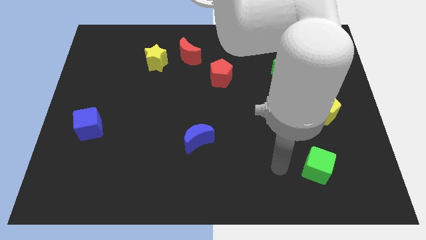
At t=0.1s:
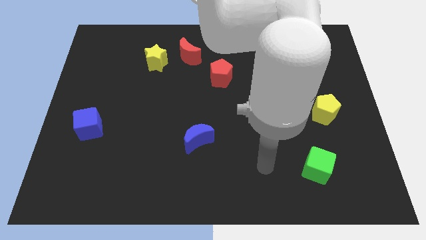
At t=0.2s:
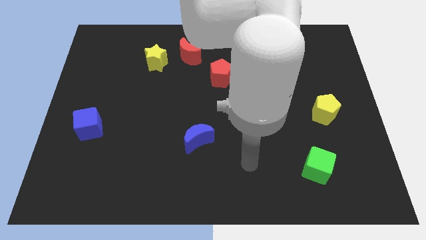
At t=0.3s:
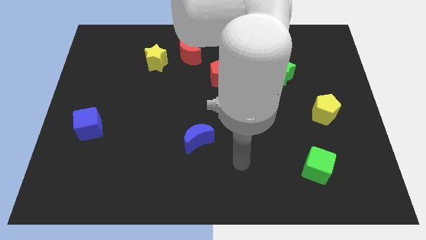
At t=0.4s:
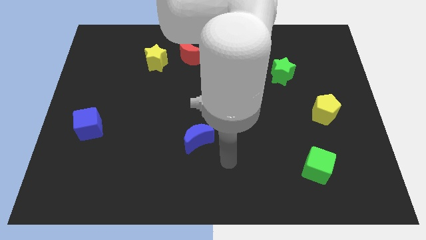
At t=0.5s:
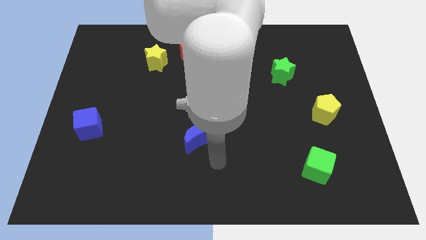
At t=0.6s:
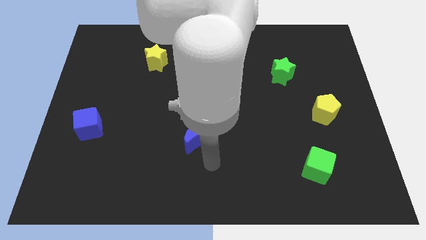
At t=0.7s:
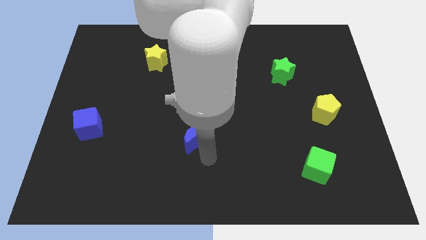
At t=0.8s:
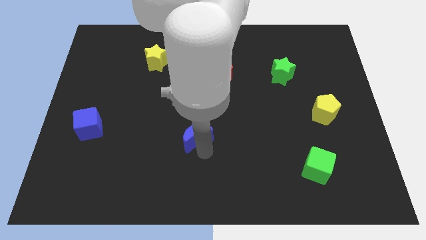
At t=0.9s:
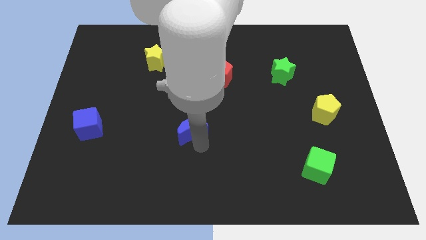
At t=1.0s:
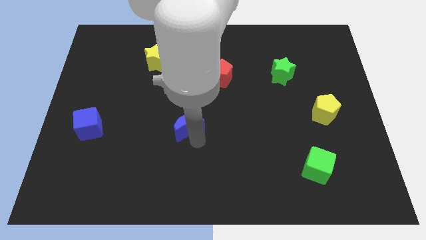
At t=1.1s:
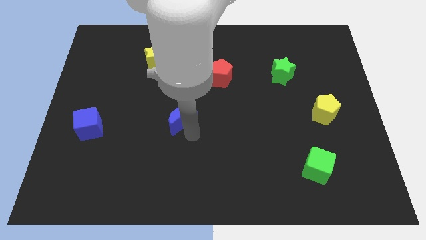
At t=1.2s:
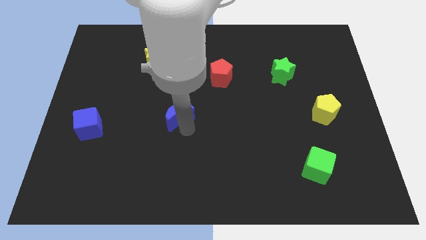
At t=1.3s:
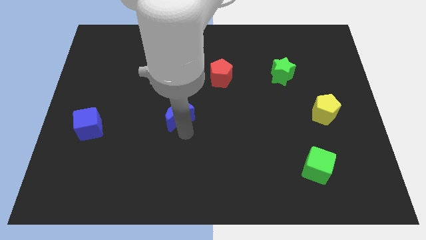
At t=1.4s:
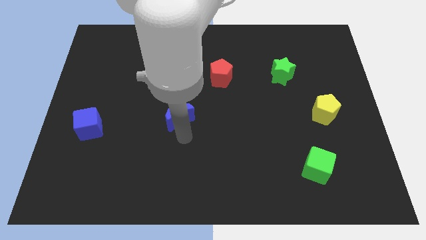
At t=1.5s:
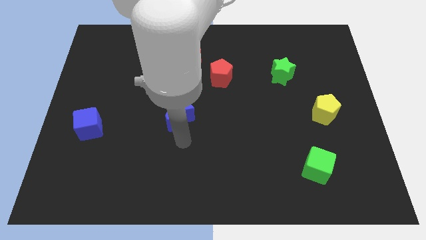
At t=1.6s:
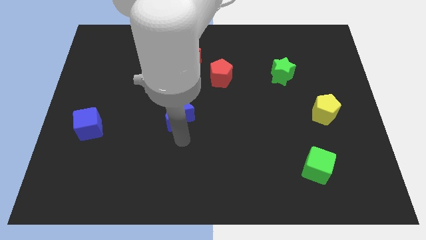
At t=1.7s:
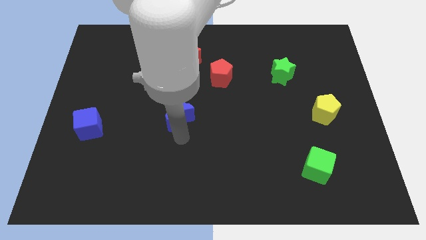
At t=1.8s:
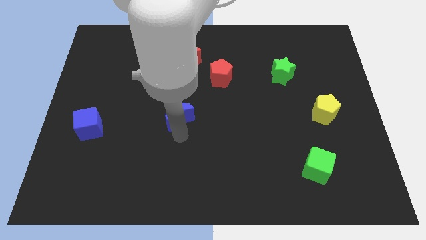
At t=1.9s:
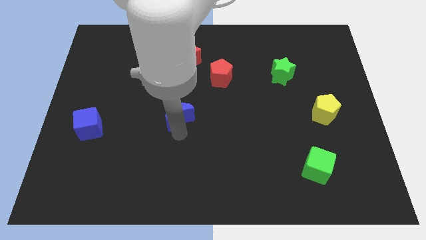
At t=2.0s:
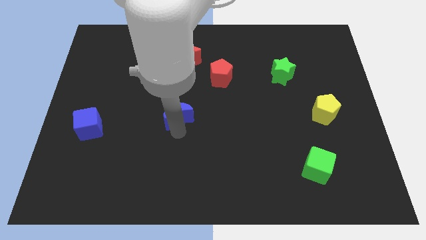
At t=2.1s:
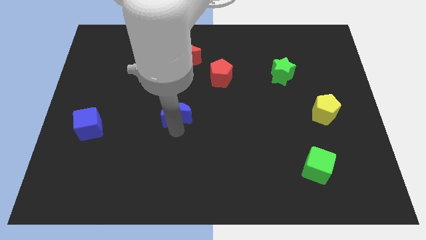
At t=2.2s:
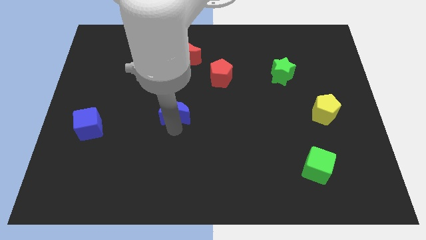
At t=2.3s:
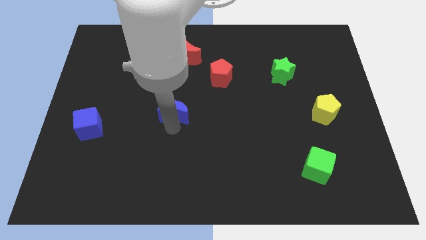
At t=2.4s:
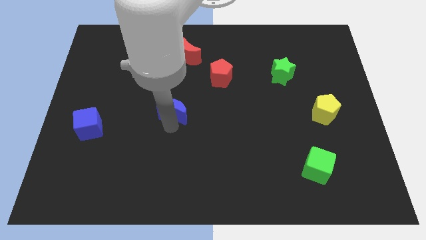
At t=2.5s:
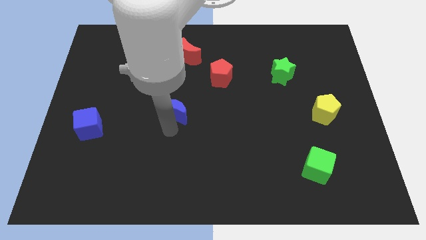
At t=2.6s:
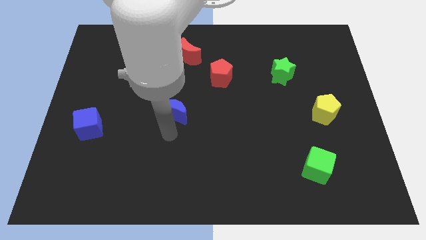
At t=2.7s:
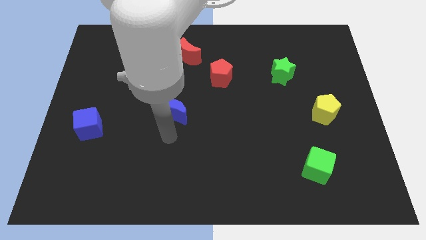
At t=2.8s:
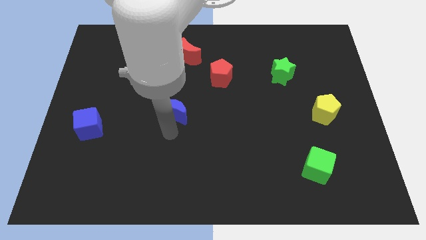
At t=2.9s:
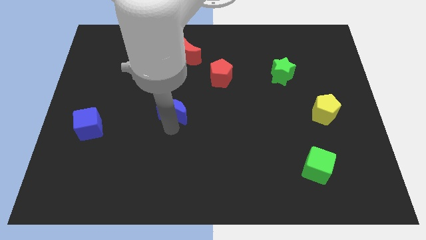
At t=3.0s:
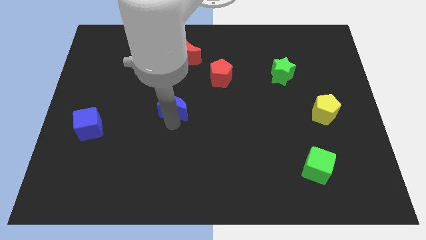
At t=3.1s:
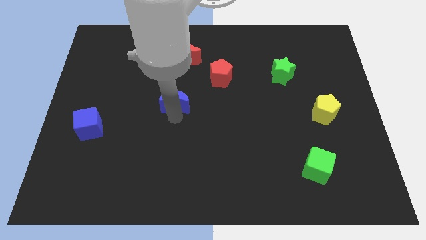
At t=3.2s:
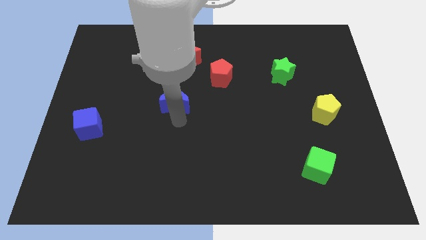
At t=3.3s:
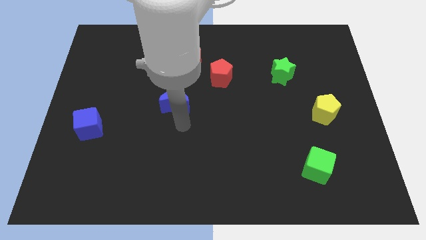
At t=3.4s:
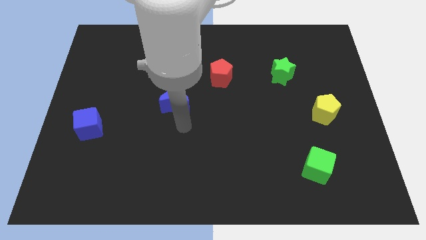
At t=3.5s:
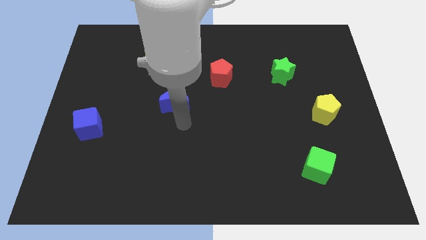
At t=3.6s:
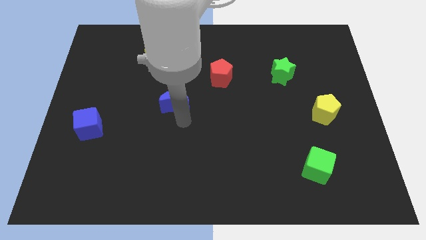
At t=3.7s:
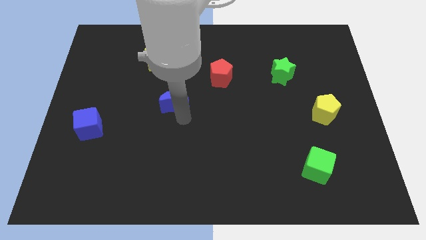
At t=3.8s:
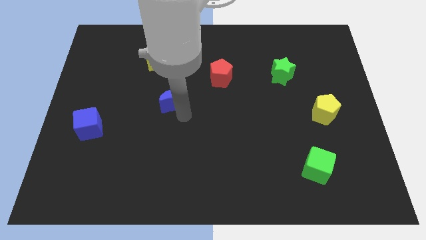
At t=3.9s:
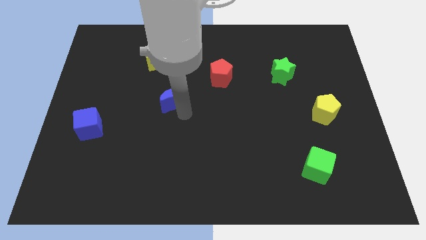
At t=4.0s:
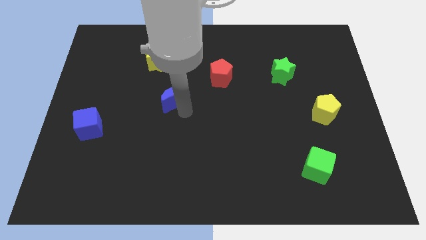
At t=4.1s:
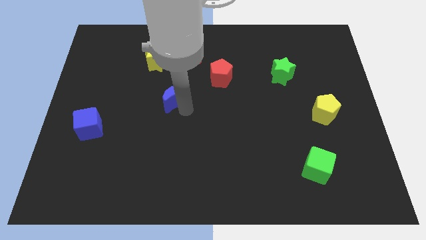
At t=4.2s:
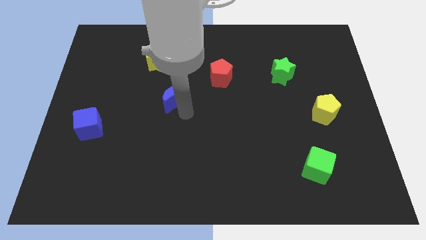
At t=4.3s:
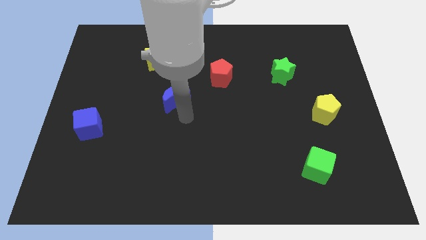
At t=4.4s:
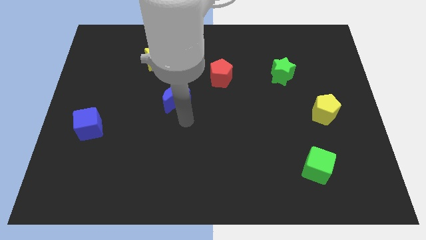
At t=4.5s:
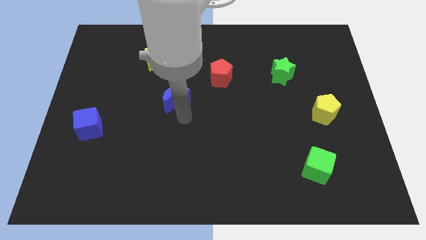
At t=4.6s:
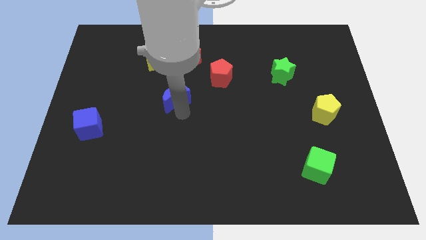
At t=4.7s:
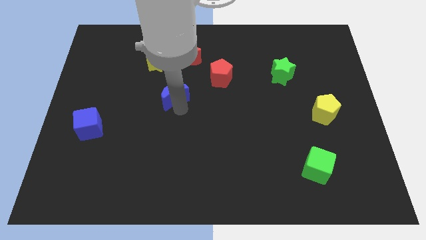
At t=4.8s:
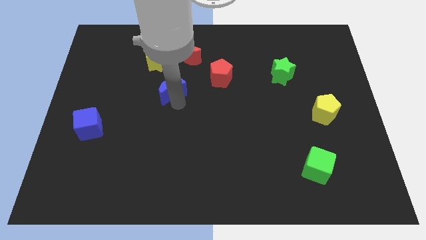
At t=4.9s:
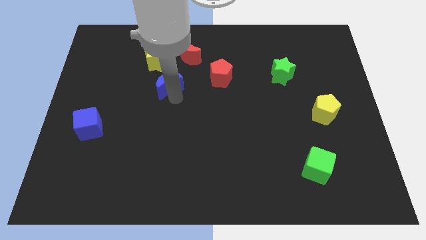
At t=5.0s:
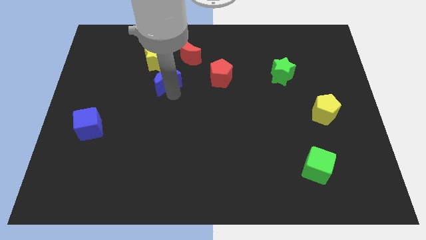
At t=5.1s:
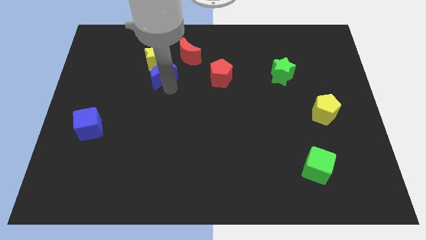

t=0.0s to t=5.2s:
put the blue moon to the yellow star

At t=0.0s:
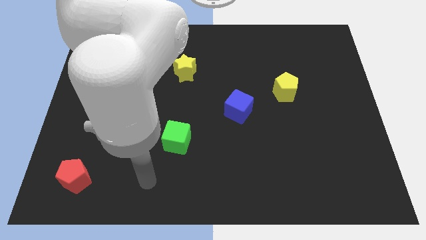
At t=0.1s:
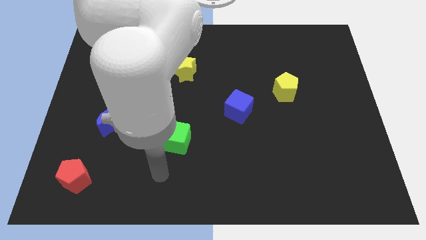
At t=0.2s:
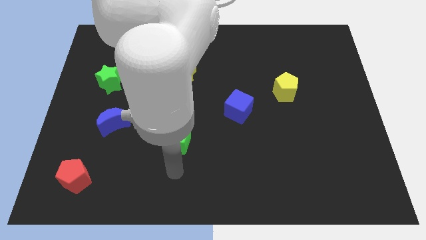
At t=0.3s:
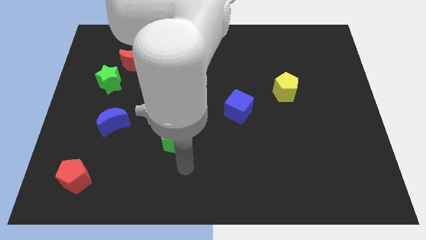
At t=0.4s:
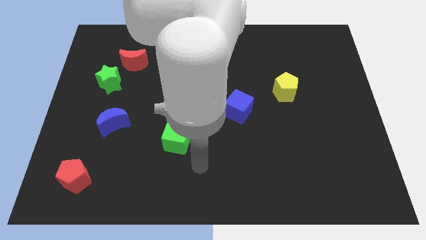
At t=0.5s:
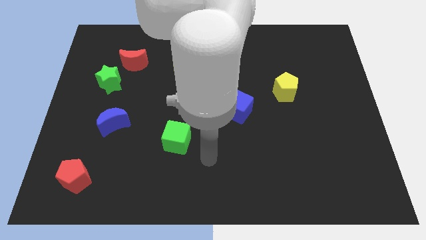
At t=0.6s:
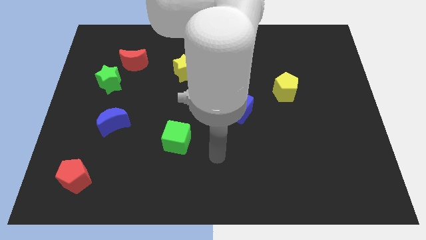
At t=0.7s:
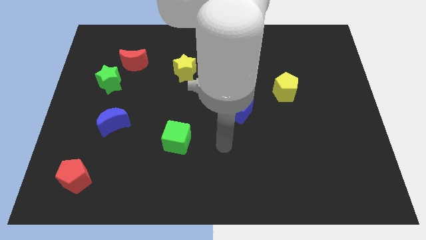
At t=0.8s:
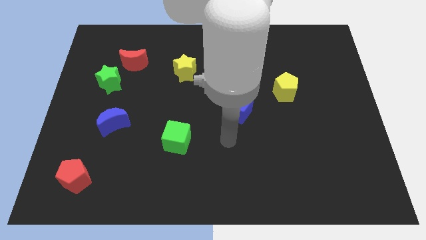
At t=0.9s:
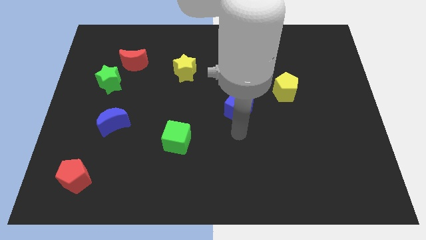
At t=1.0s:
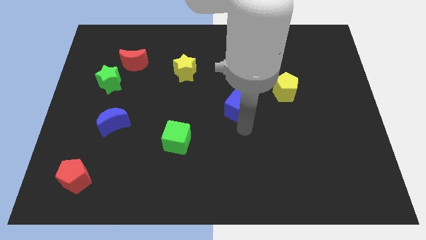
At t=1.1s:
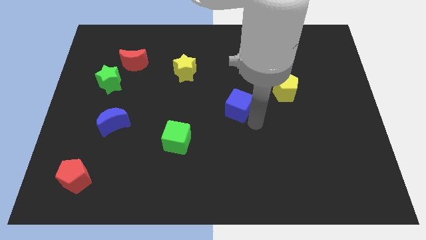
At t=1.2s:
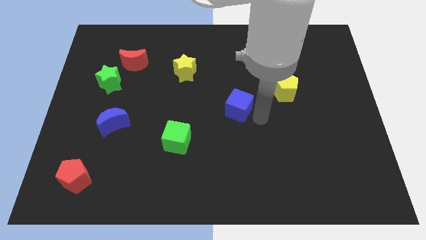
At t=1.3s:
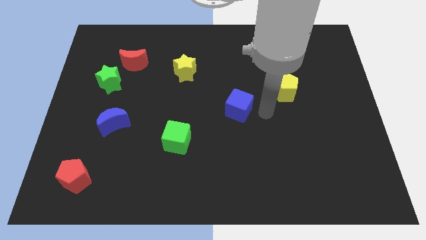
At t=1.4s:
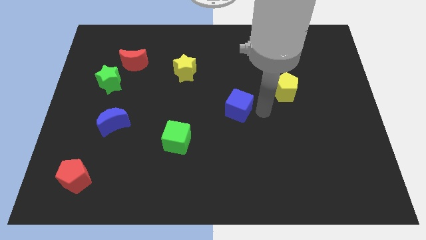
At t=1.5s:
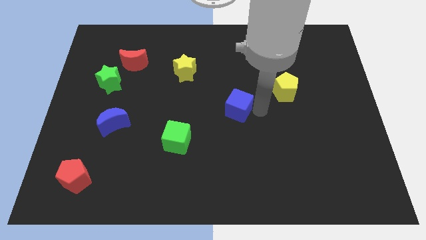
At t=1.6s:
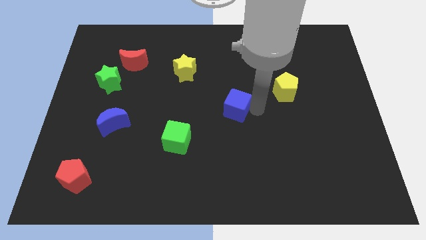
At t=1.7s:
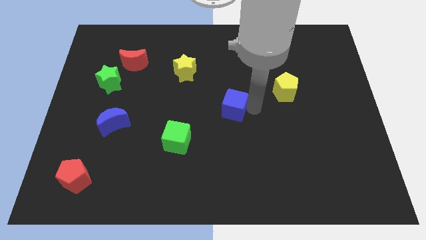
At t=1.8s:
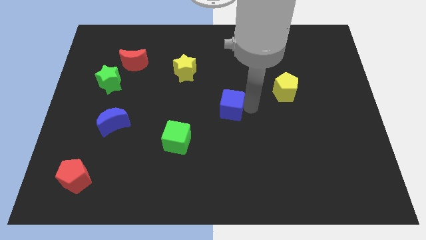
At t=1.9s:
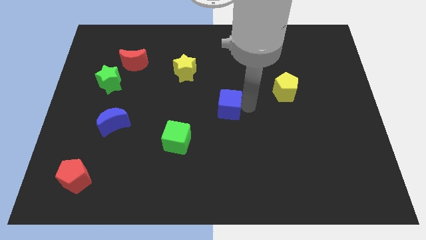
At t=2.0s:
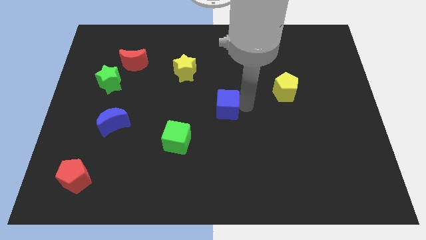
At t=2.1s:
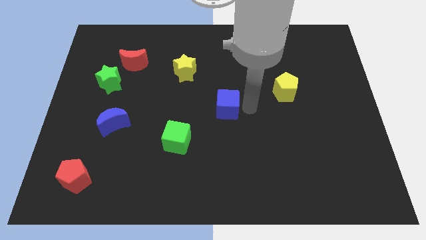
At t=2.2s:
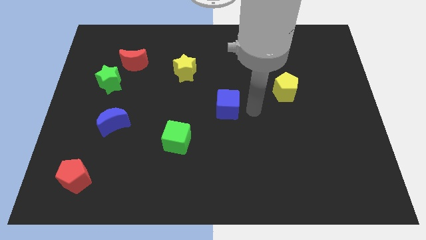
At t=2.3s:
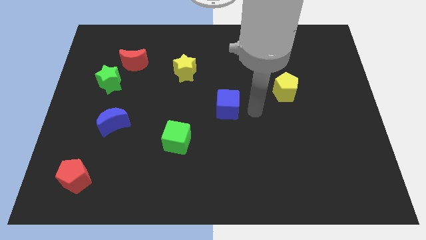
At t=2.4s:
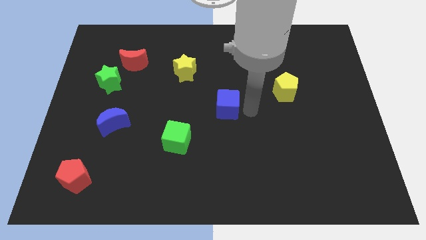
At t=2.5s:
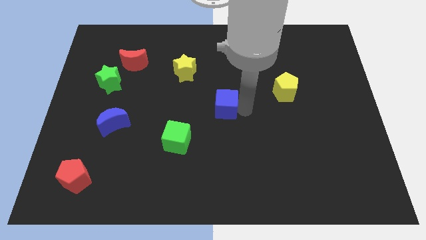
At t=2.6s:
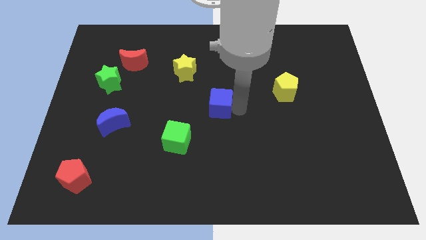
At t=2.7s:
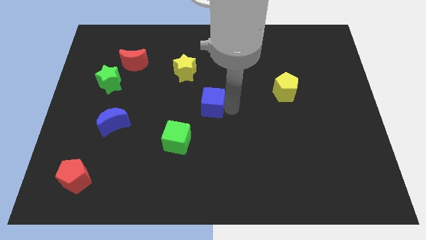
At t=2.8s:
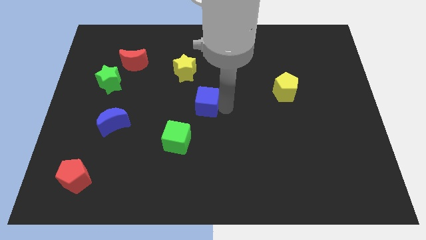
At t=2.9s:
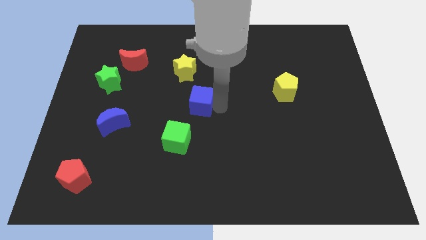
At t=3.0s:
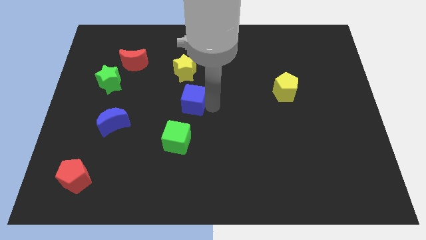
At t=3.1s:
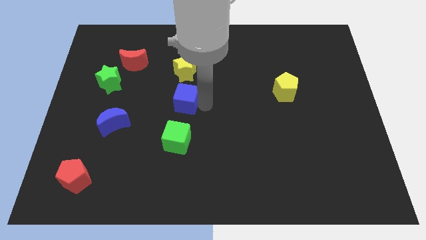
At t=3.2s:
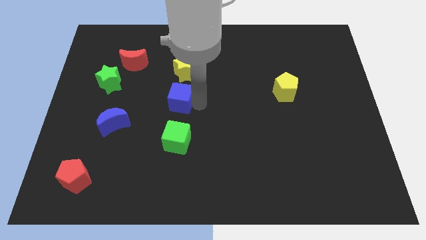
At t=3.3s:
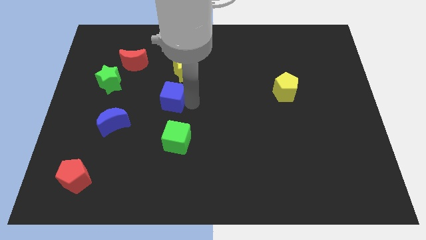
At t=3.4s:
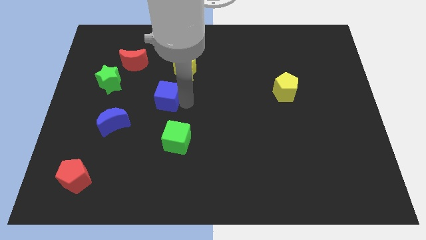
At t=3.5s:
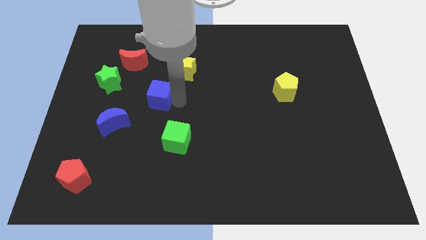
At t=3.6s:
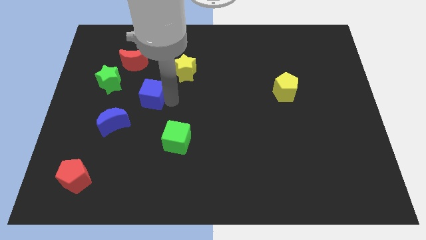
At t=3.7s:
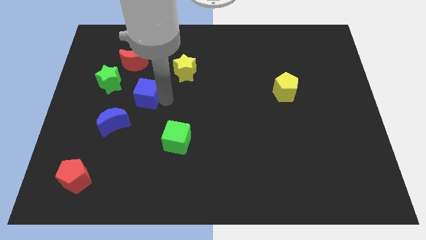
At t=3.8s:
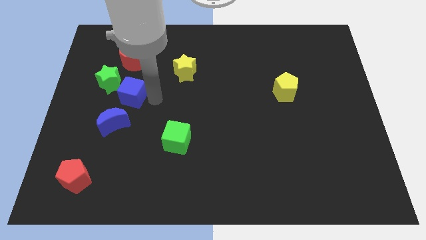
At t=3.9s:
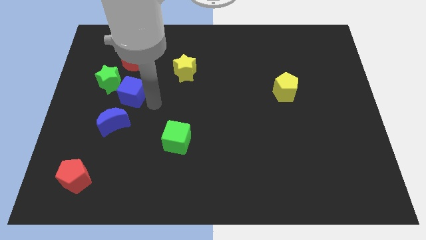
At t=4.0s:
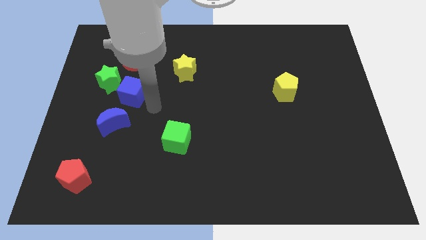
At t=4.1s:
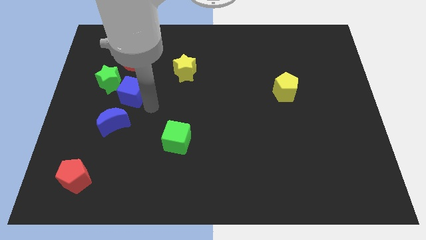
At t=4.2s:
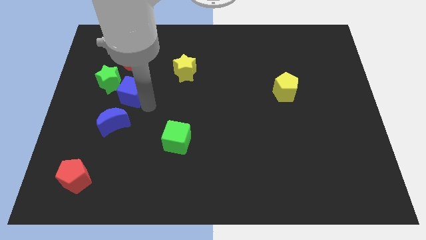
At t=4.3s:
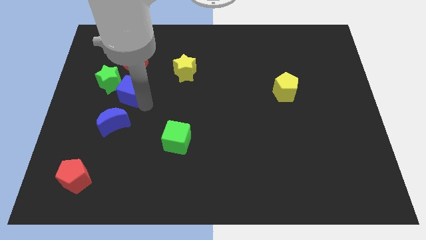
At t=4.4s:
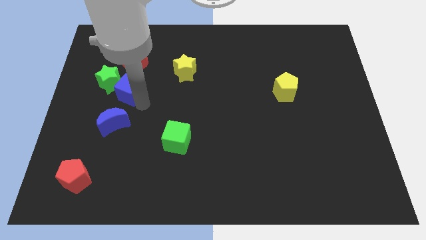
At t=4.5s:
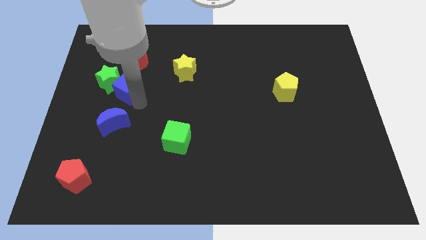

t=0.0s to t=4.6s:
move the blue cube towards the green star
